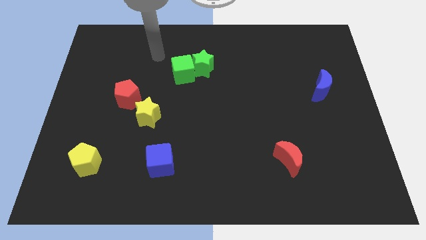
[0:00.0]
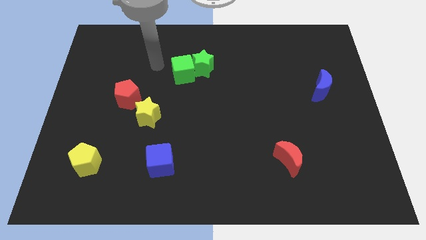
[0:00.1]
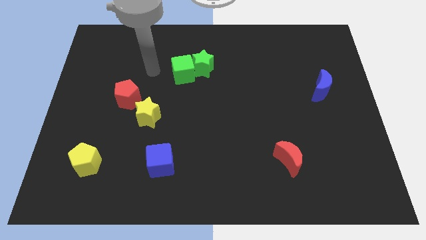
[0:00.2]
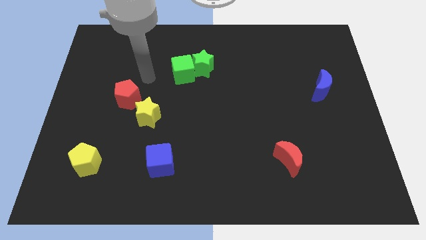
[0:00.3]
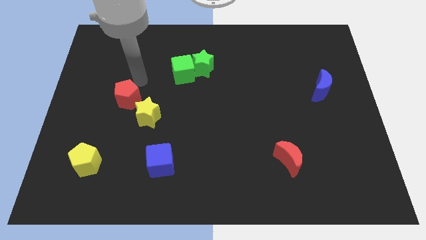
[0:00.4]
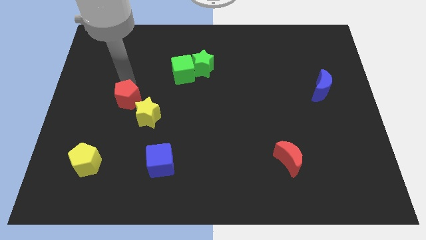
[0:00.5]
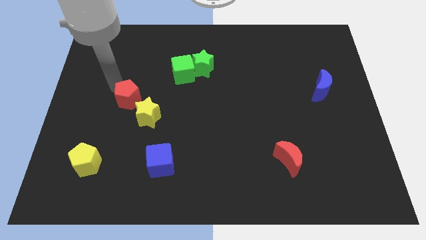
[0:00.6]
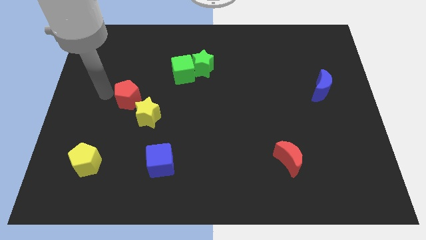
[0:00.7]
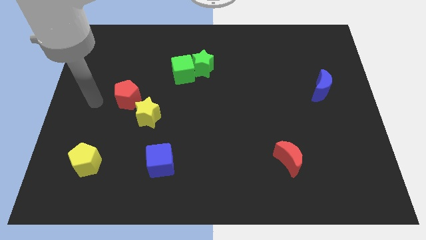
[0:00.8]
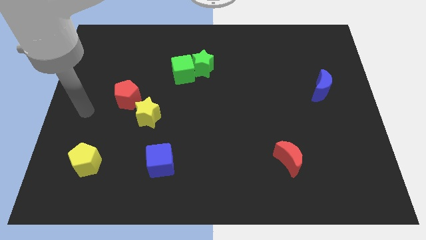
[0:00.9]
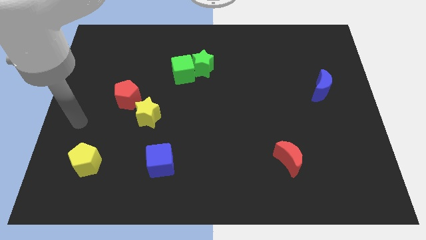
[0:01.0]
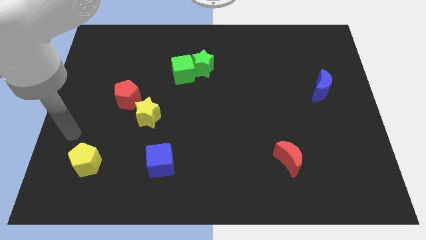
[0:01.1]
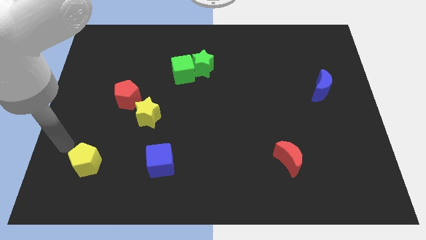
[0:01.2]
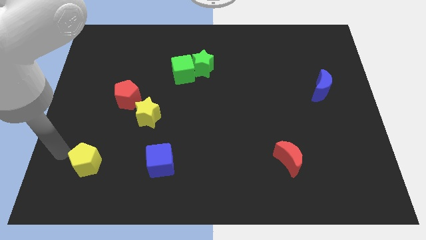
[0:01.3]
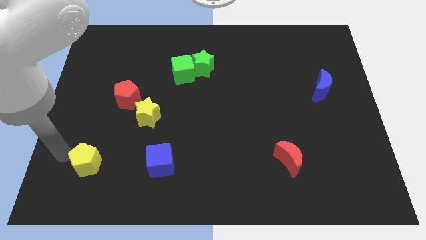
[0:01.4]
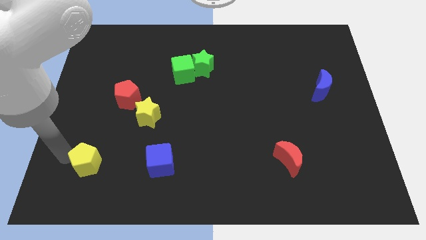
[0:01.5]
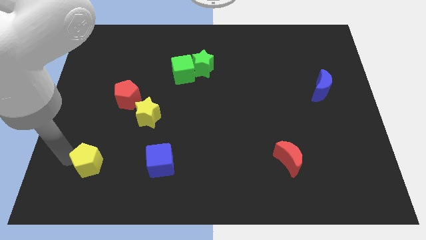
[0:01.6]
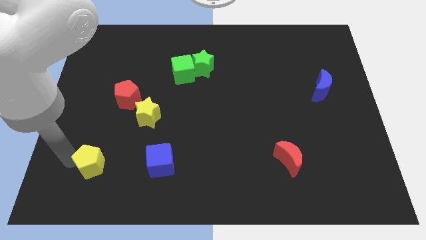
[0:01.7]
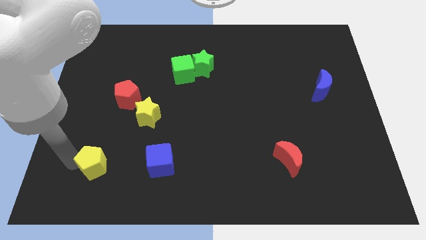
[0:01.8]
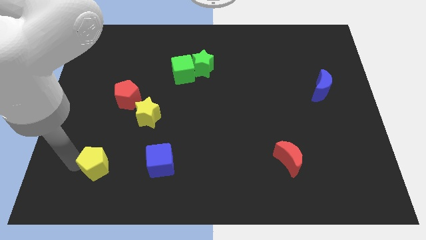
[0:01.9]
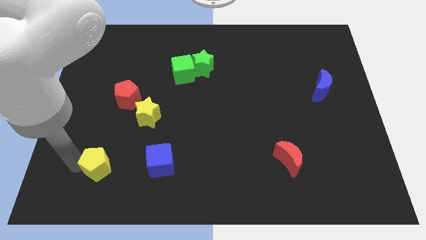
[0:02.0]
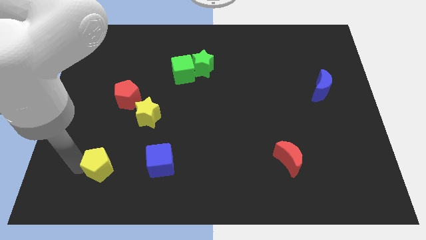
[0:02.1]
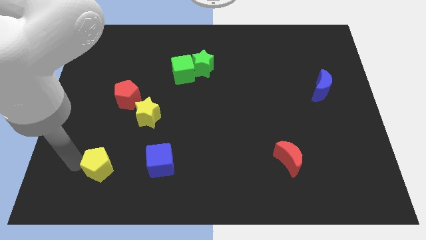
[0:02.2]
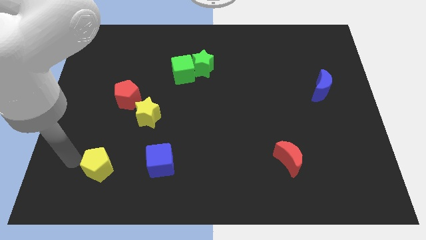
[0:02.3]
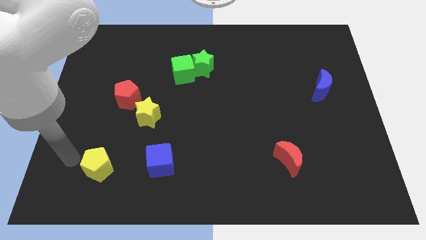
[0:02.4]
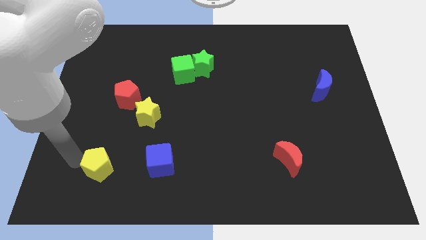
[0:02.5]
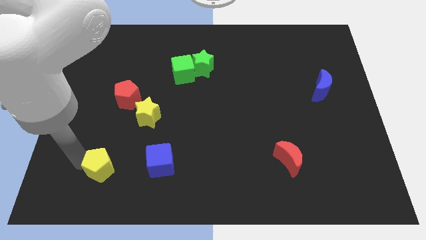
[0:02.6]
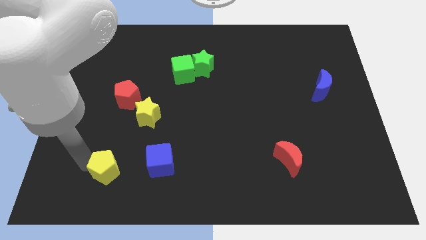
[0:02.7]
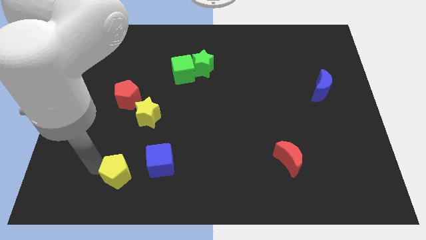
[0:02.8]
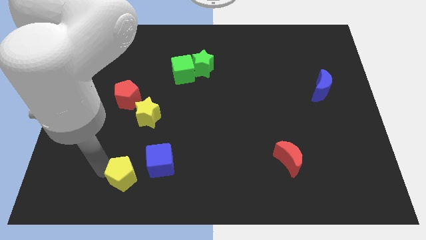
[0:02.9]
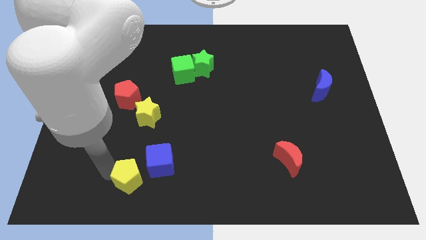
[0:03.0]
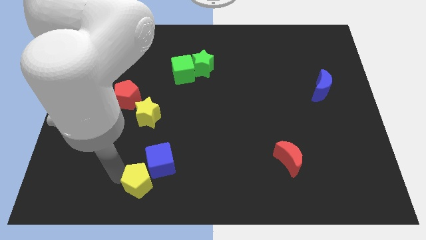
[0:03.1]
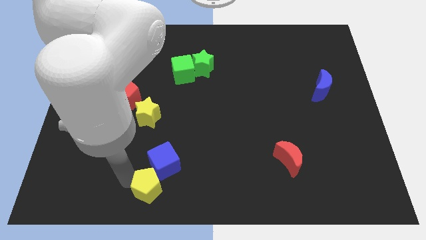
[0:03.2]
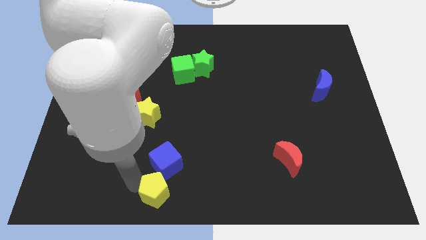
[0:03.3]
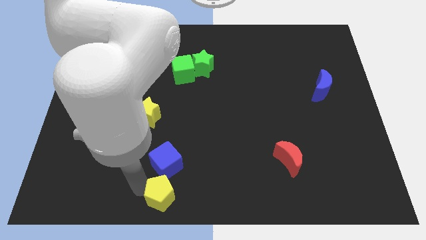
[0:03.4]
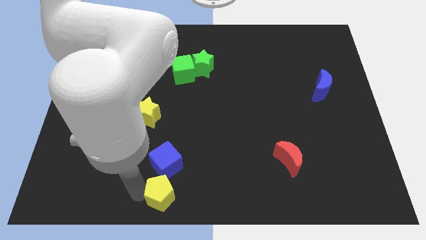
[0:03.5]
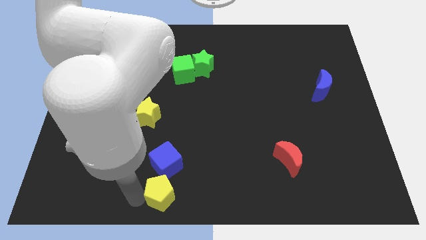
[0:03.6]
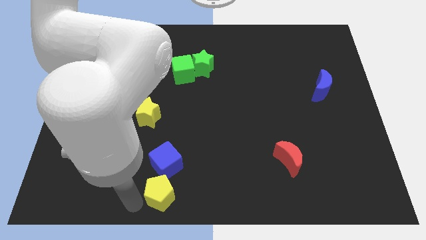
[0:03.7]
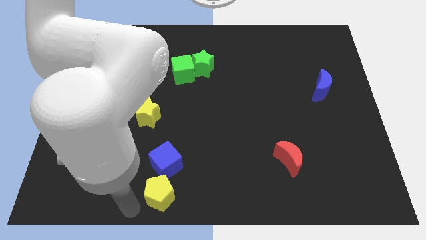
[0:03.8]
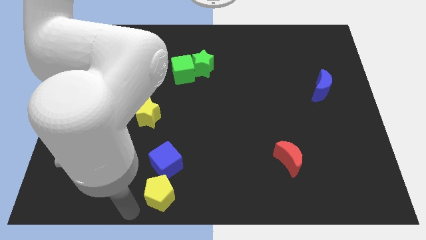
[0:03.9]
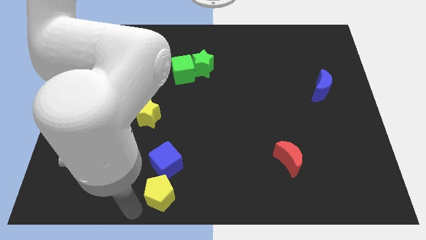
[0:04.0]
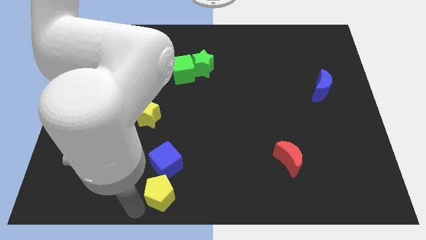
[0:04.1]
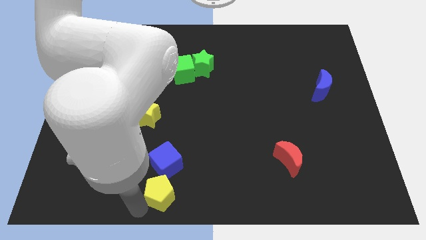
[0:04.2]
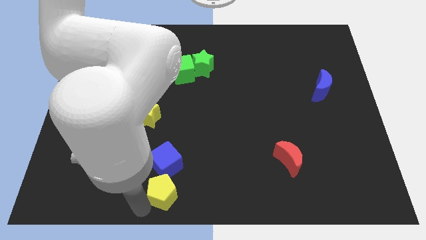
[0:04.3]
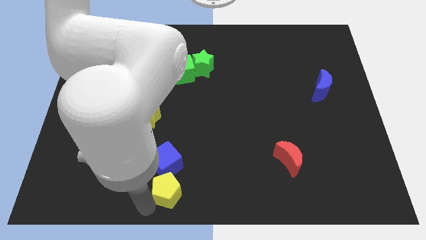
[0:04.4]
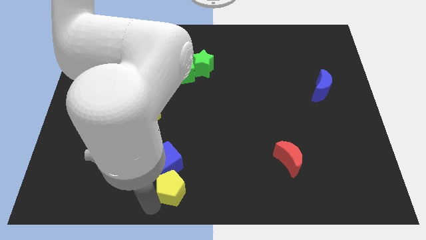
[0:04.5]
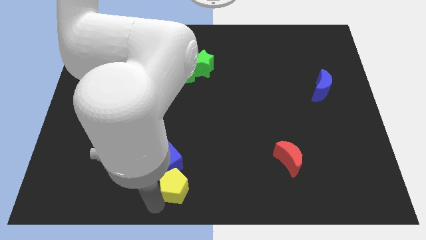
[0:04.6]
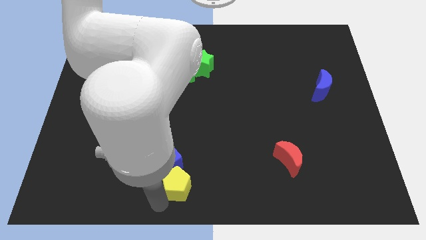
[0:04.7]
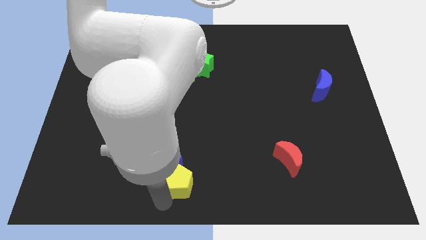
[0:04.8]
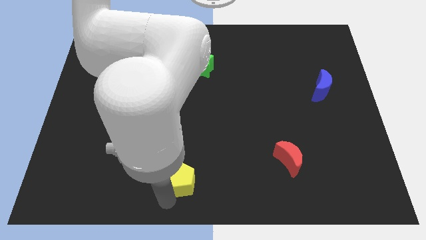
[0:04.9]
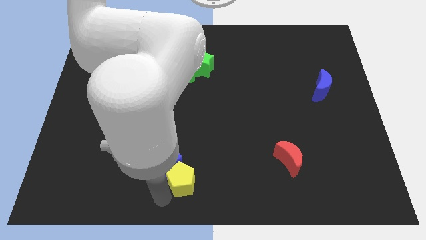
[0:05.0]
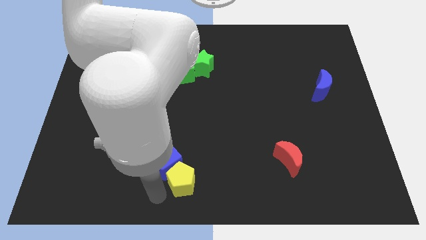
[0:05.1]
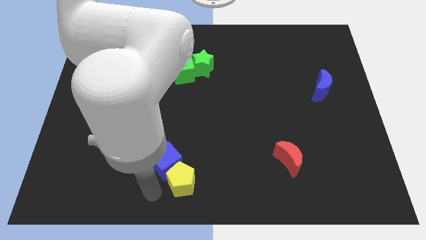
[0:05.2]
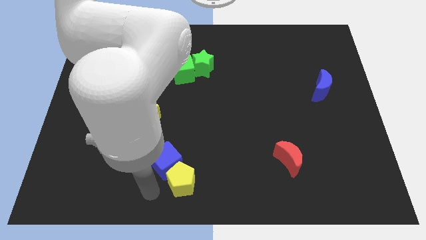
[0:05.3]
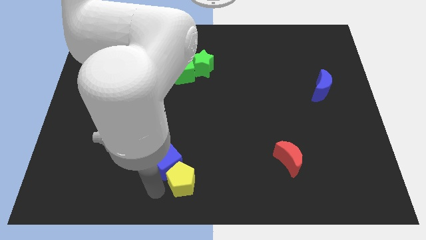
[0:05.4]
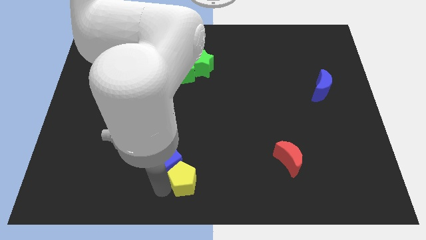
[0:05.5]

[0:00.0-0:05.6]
slide the yellow pentagon to the right

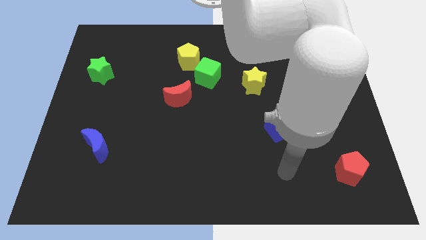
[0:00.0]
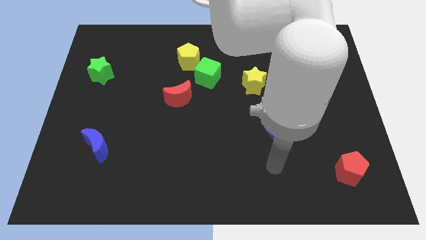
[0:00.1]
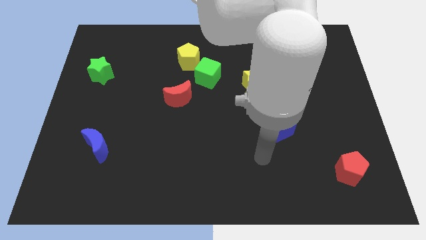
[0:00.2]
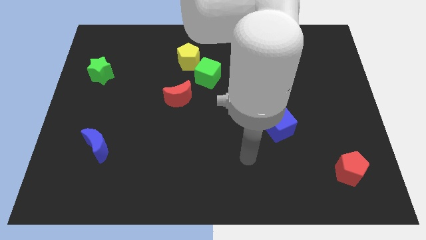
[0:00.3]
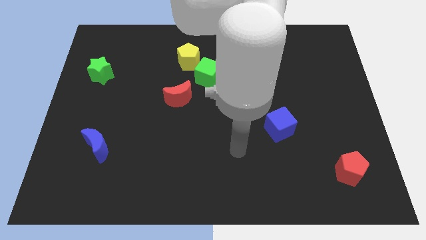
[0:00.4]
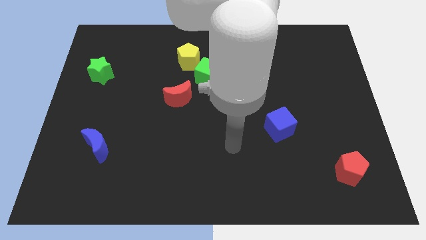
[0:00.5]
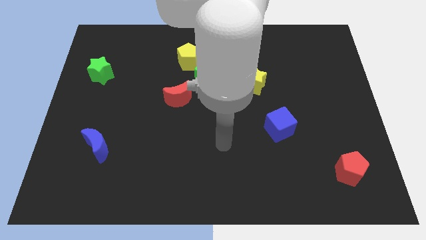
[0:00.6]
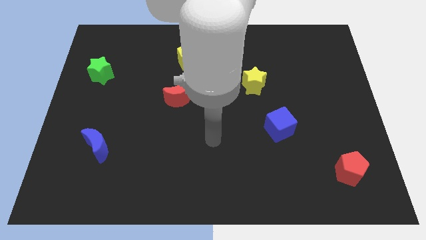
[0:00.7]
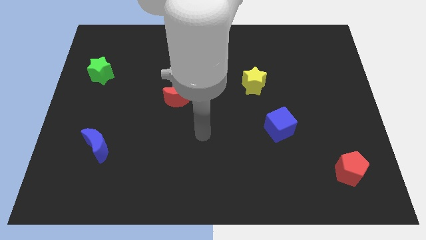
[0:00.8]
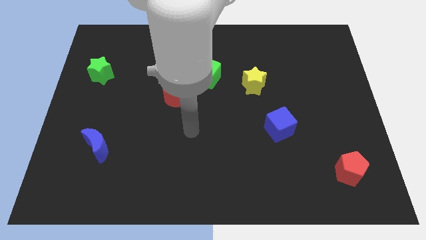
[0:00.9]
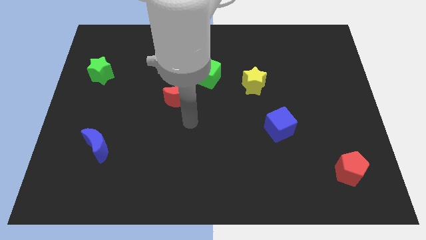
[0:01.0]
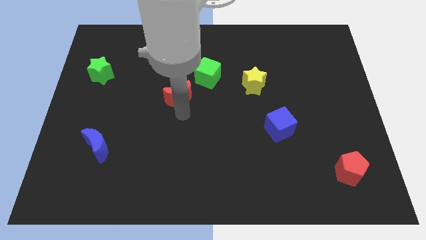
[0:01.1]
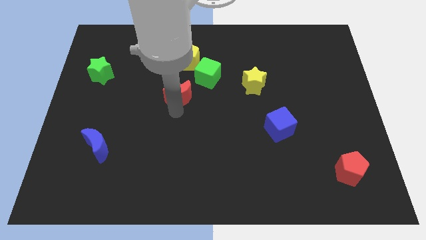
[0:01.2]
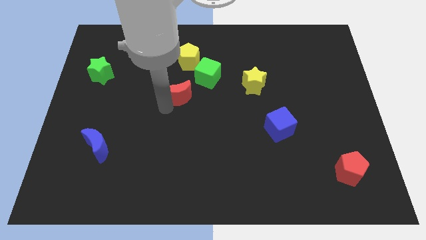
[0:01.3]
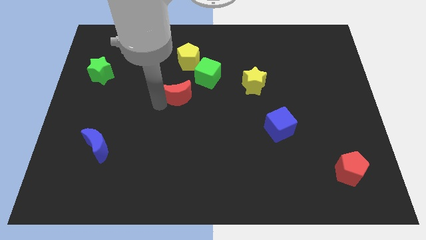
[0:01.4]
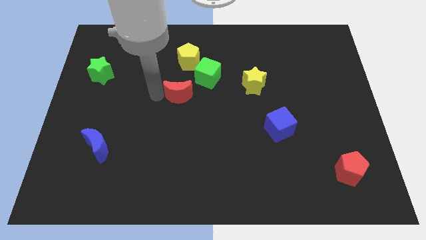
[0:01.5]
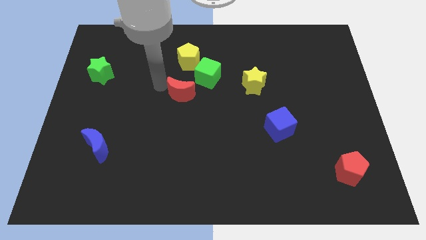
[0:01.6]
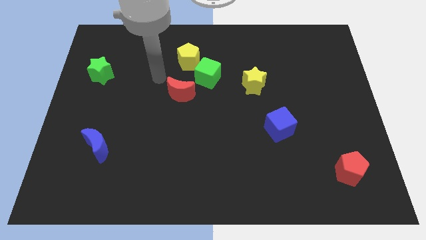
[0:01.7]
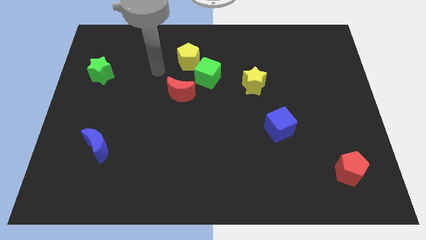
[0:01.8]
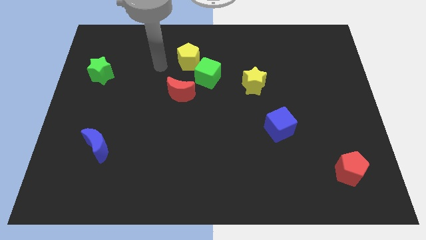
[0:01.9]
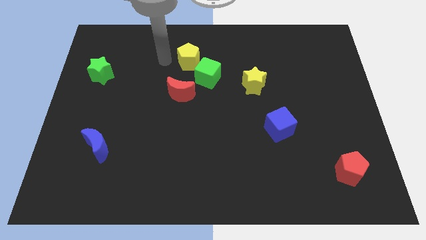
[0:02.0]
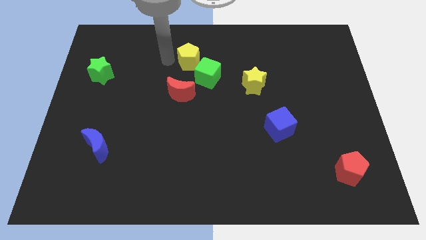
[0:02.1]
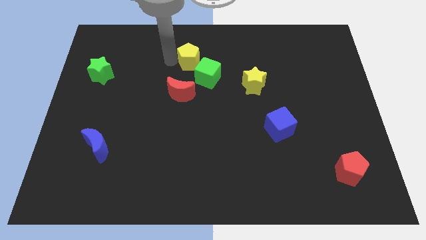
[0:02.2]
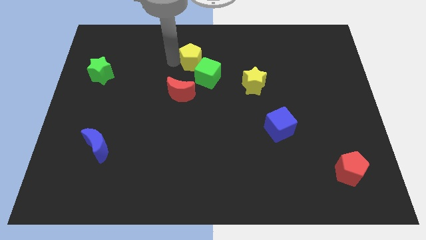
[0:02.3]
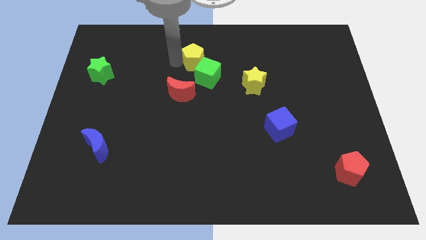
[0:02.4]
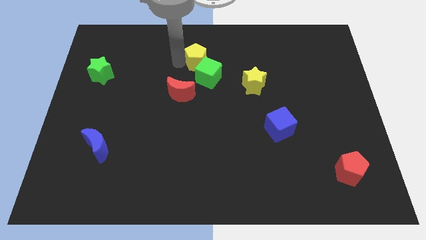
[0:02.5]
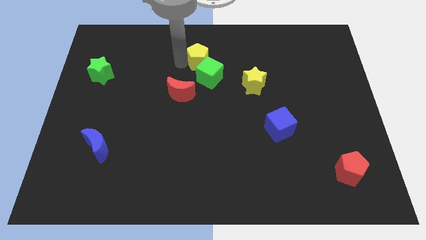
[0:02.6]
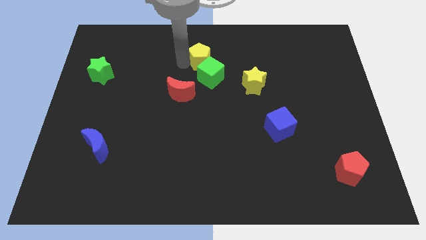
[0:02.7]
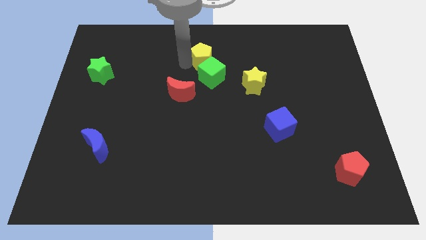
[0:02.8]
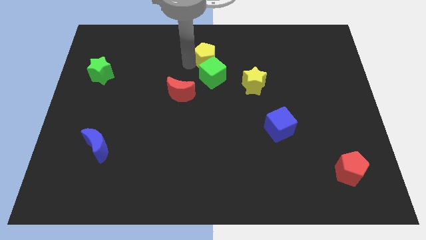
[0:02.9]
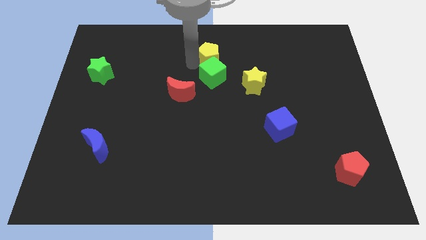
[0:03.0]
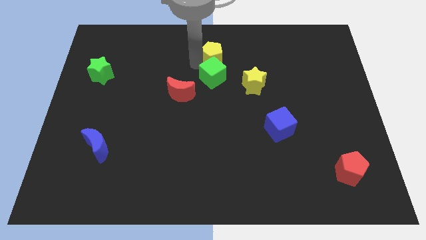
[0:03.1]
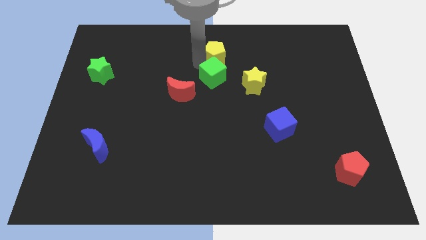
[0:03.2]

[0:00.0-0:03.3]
slightly push the yellow pentagon right
